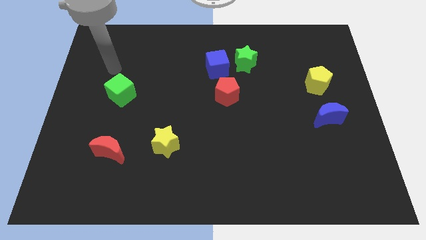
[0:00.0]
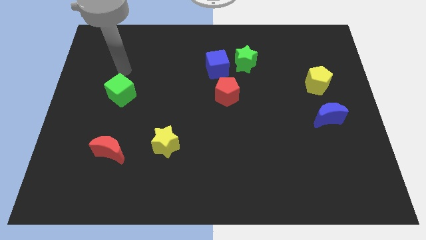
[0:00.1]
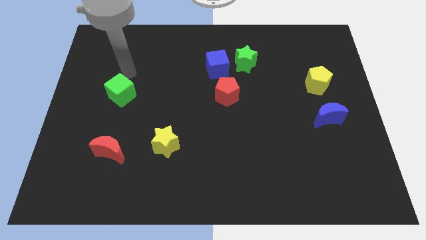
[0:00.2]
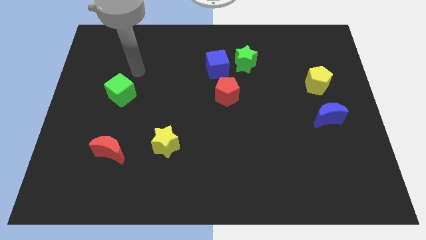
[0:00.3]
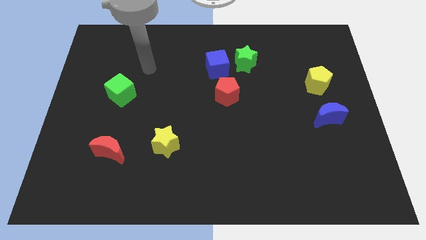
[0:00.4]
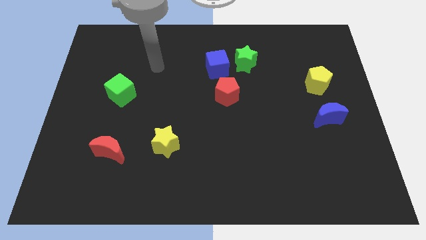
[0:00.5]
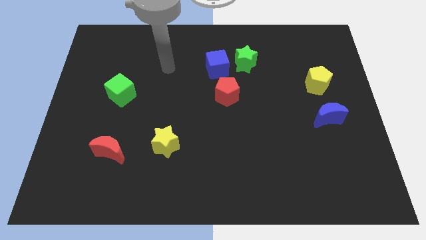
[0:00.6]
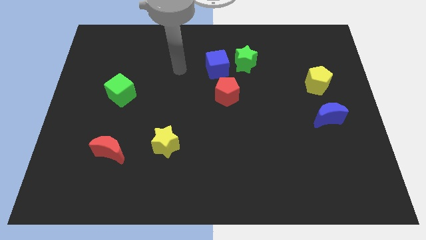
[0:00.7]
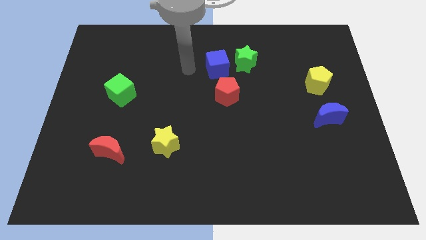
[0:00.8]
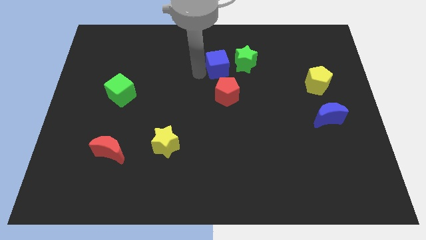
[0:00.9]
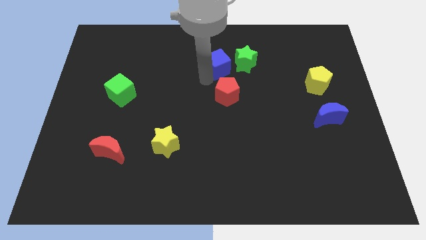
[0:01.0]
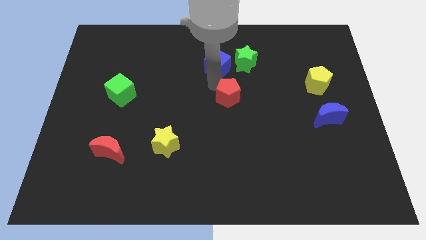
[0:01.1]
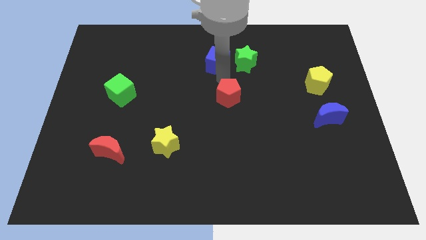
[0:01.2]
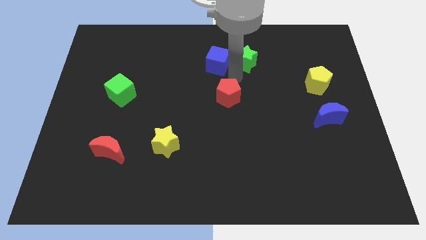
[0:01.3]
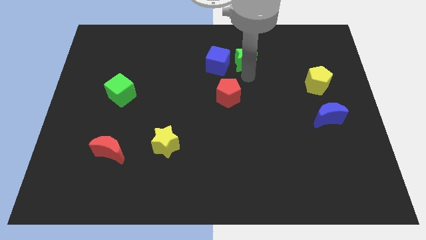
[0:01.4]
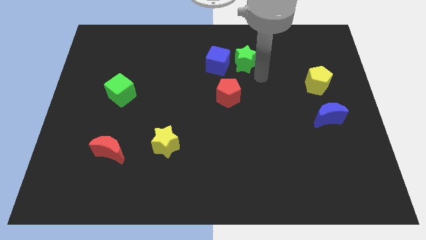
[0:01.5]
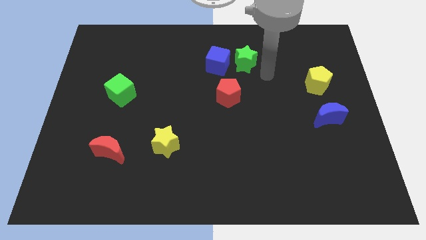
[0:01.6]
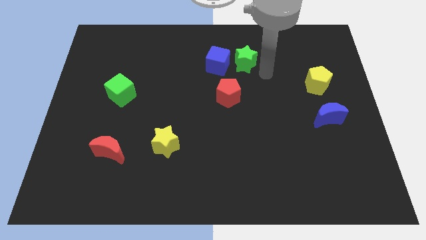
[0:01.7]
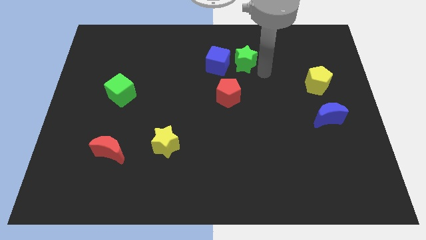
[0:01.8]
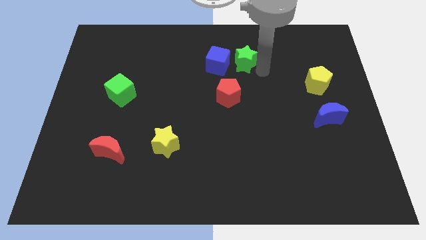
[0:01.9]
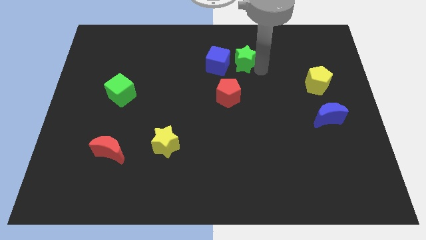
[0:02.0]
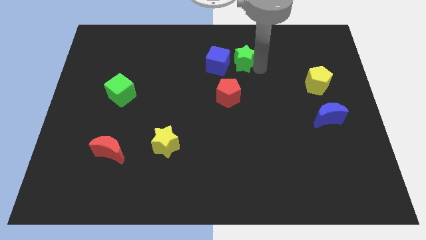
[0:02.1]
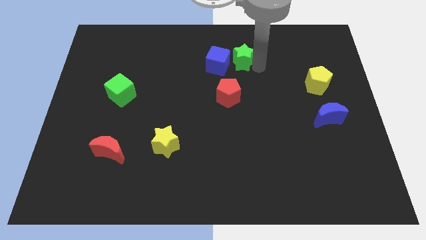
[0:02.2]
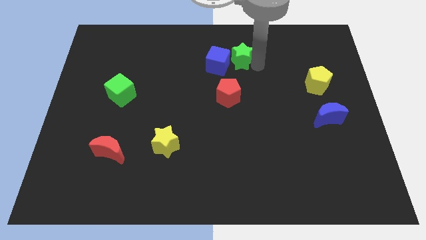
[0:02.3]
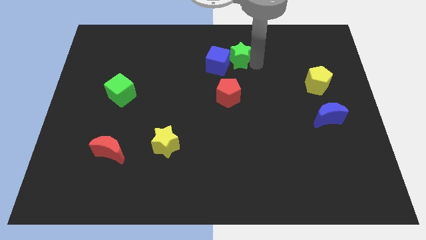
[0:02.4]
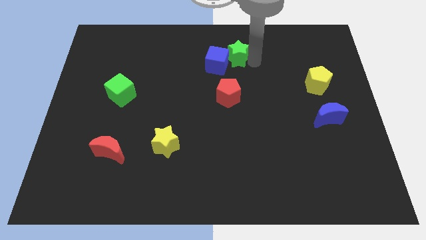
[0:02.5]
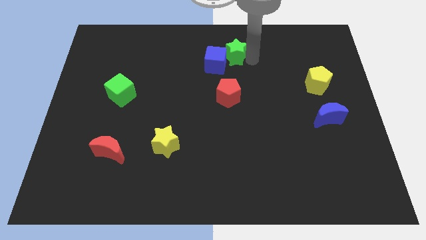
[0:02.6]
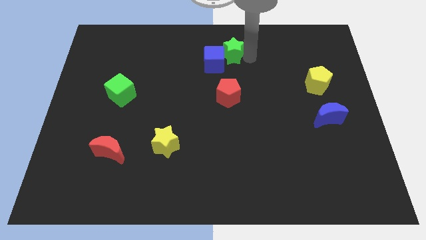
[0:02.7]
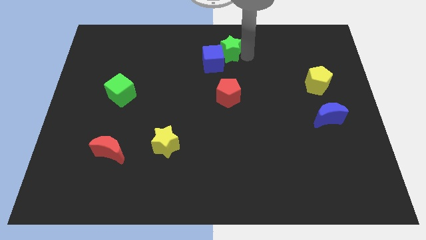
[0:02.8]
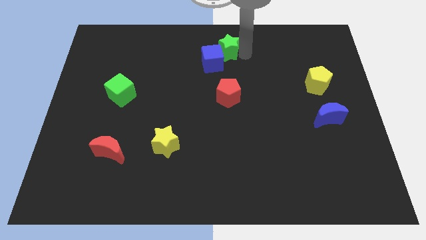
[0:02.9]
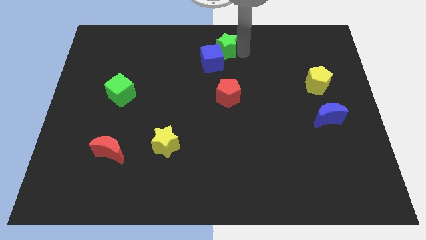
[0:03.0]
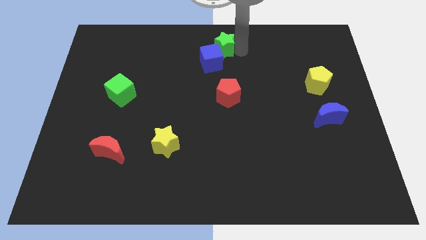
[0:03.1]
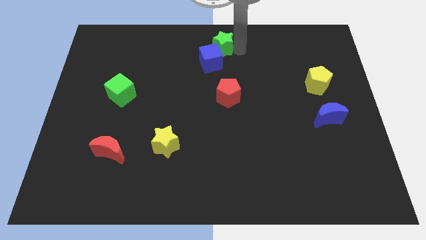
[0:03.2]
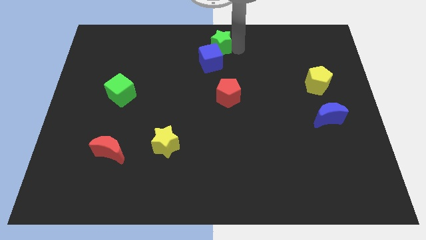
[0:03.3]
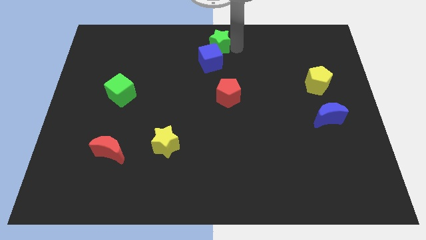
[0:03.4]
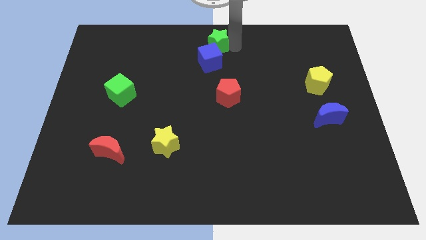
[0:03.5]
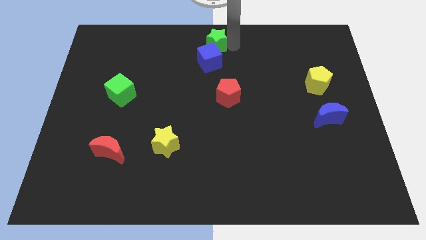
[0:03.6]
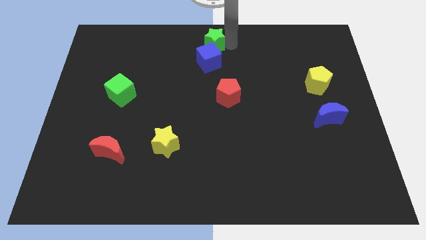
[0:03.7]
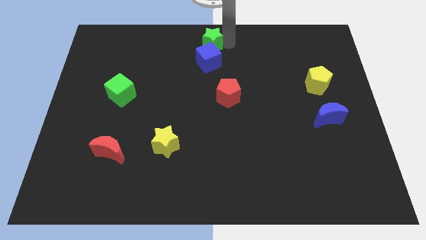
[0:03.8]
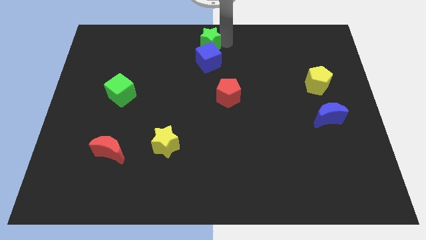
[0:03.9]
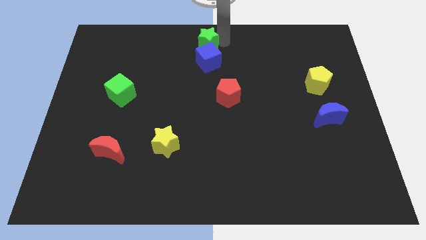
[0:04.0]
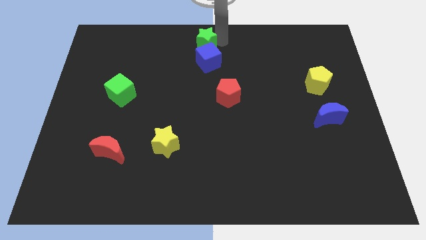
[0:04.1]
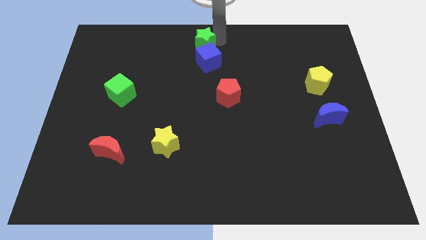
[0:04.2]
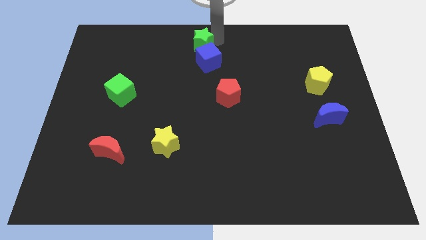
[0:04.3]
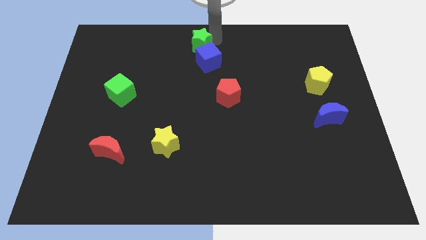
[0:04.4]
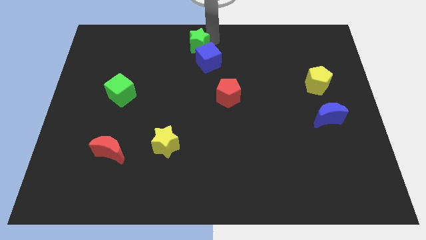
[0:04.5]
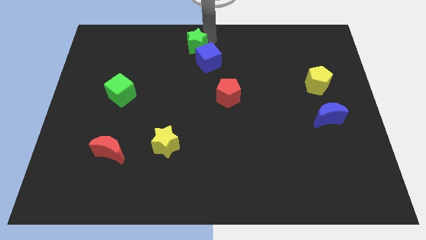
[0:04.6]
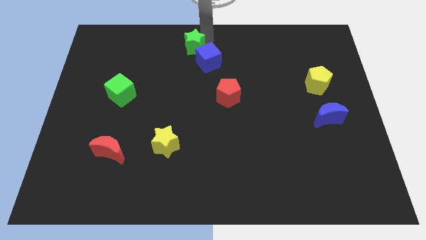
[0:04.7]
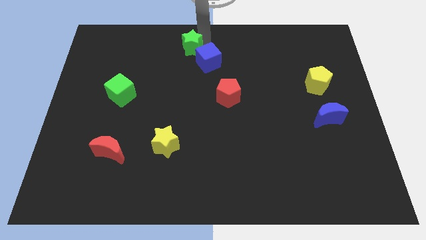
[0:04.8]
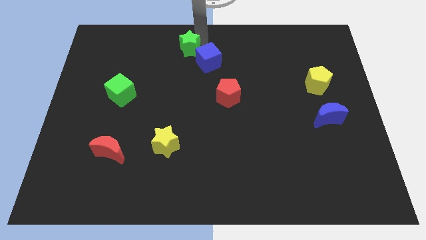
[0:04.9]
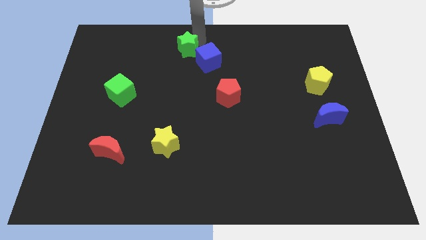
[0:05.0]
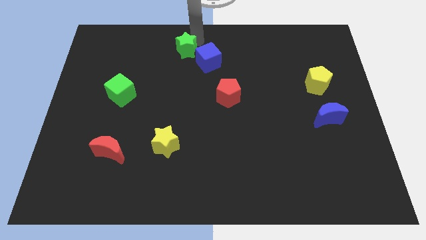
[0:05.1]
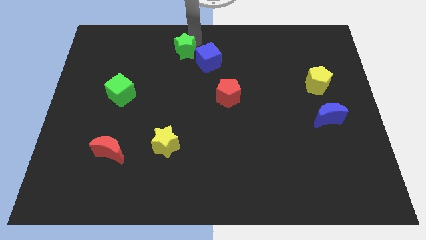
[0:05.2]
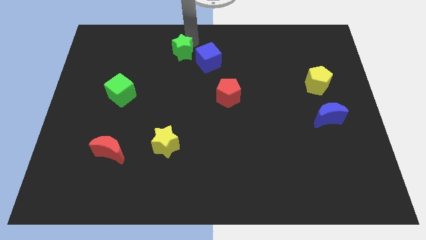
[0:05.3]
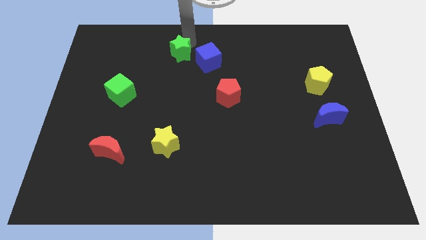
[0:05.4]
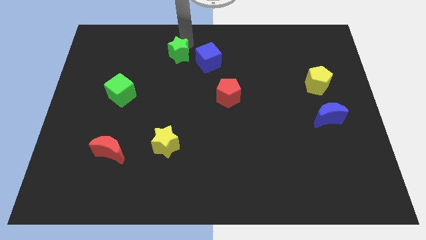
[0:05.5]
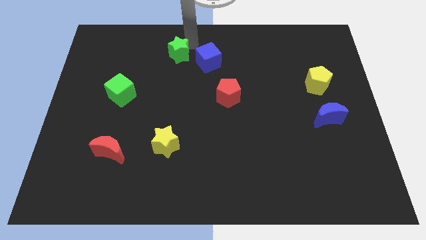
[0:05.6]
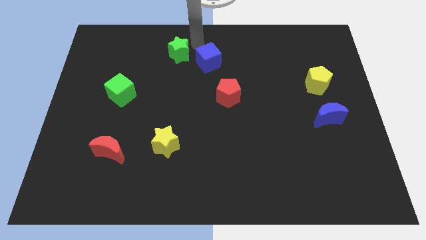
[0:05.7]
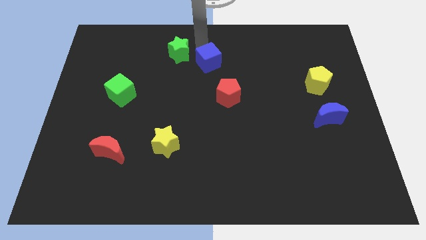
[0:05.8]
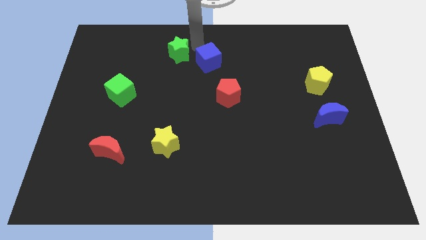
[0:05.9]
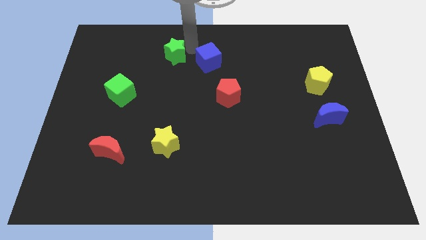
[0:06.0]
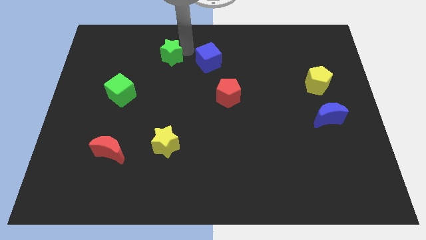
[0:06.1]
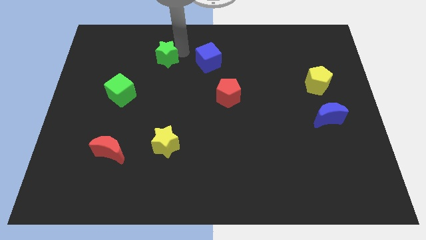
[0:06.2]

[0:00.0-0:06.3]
slide the green star left

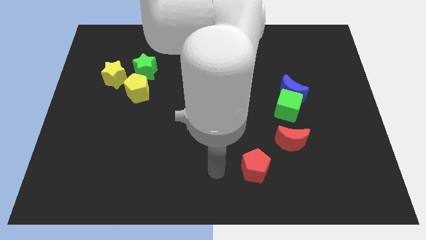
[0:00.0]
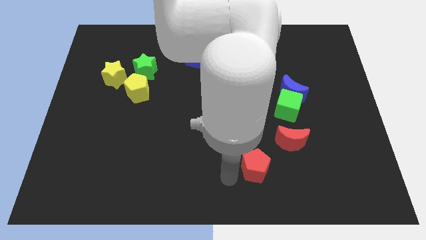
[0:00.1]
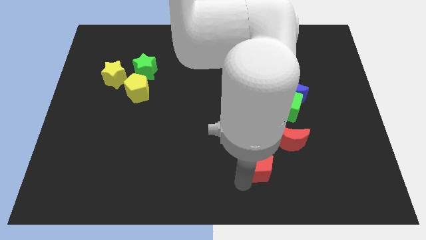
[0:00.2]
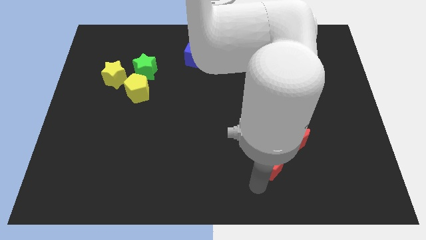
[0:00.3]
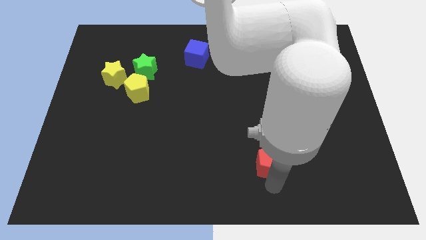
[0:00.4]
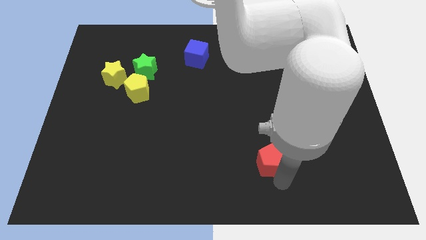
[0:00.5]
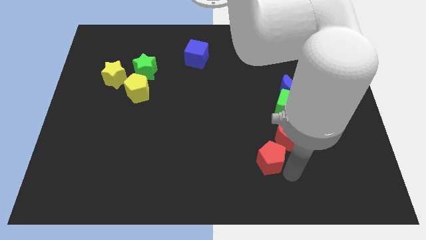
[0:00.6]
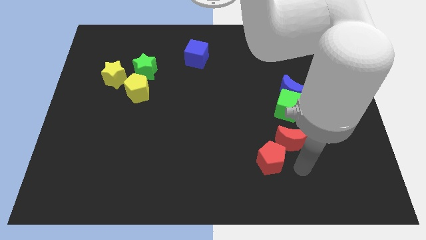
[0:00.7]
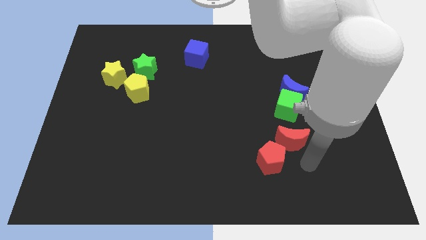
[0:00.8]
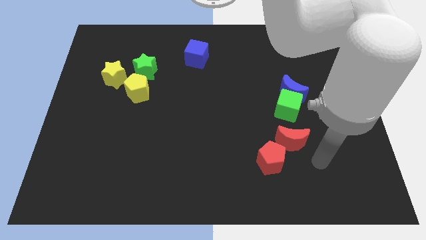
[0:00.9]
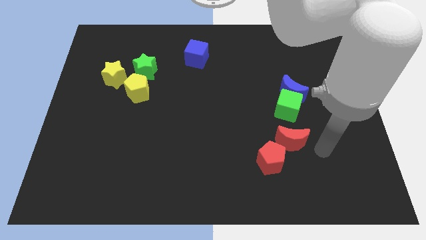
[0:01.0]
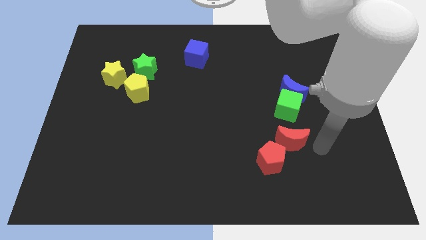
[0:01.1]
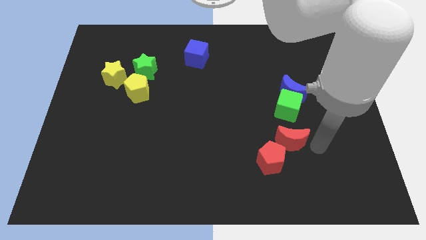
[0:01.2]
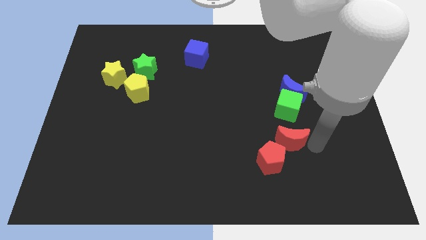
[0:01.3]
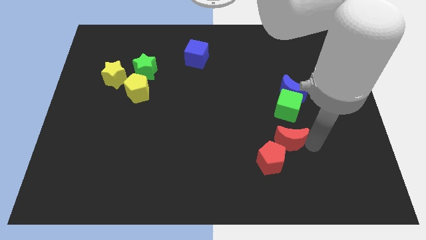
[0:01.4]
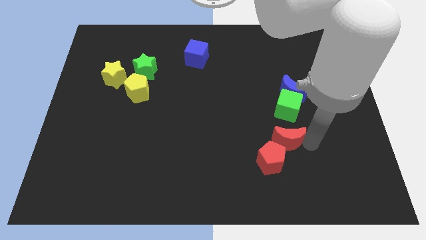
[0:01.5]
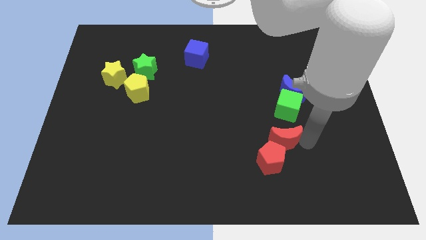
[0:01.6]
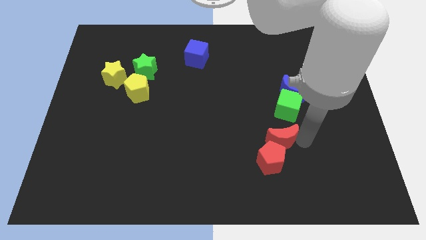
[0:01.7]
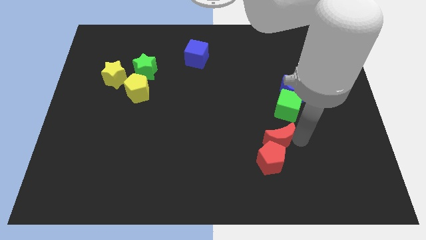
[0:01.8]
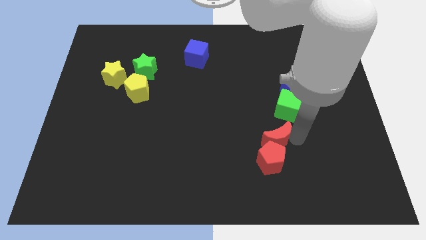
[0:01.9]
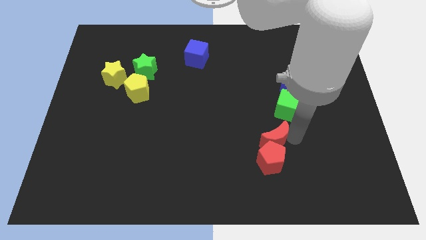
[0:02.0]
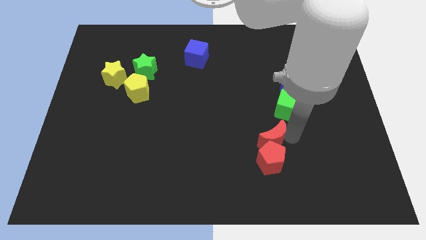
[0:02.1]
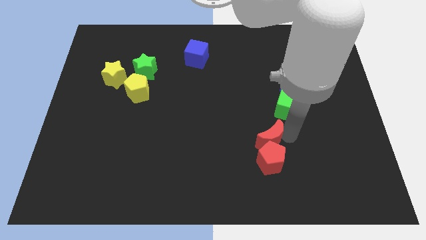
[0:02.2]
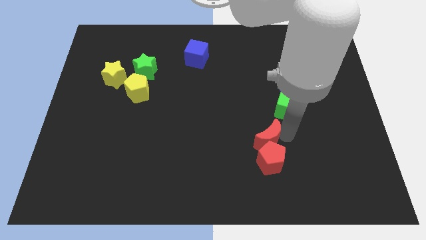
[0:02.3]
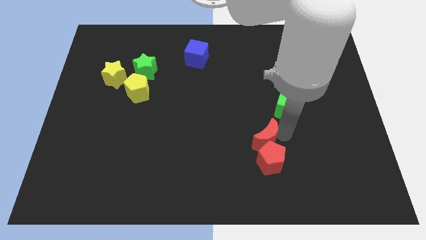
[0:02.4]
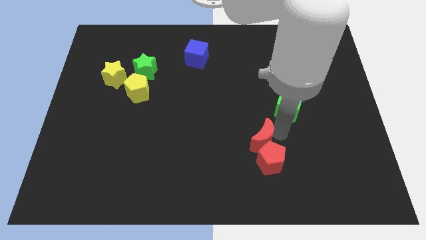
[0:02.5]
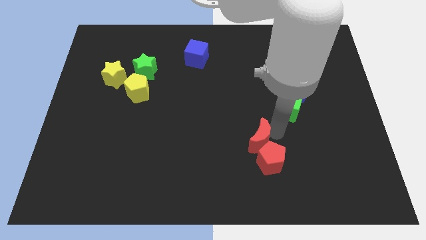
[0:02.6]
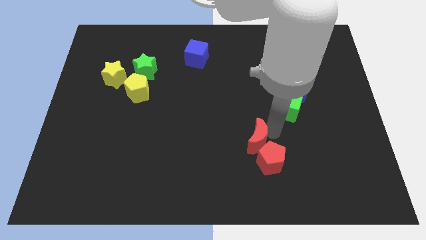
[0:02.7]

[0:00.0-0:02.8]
push the red moon a little left
